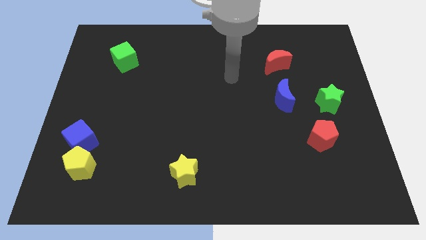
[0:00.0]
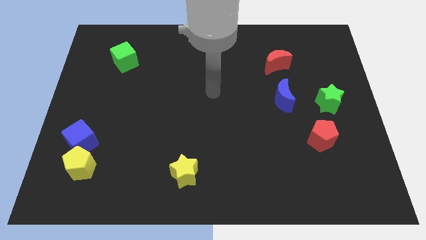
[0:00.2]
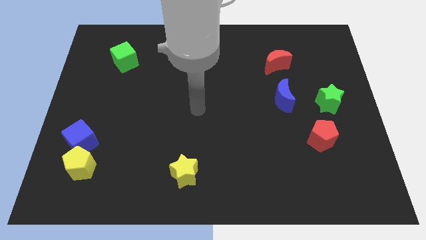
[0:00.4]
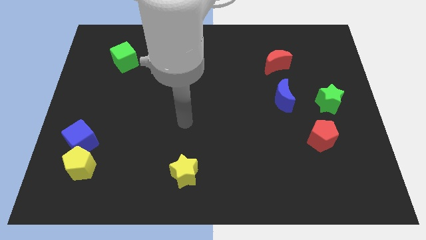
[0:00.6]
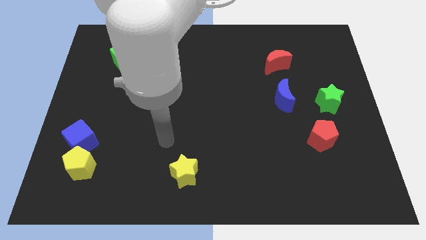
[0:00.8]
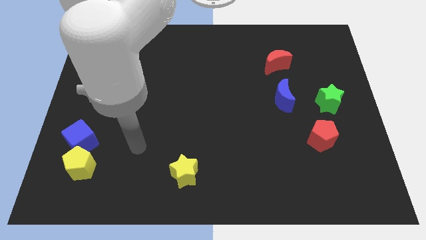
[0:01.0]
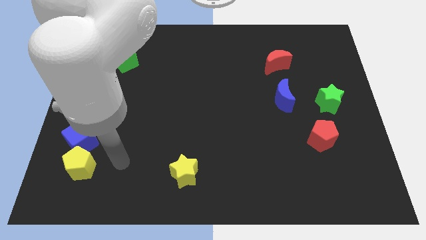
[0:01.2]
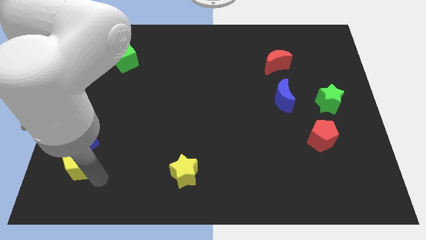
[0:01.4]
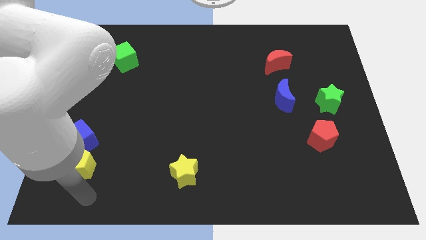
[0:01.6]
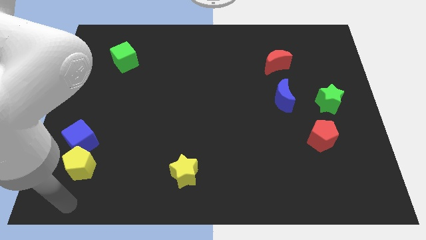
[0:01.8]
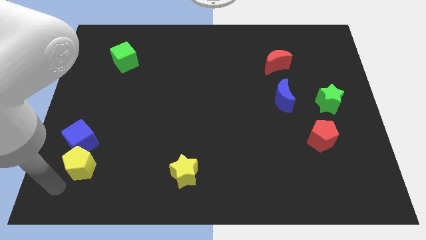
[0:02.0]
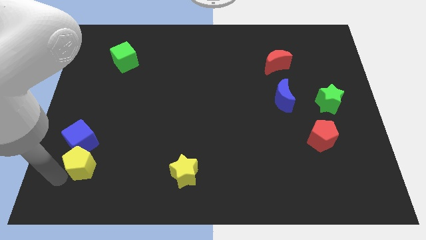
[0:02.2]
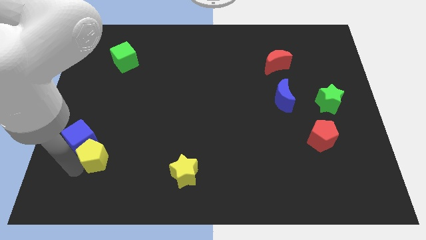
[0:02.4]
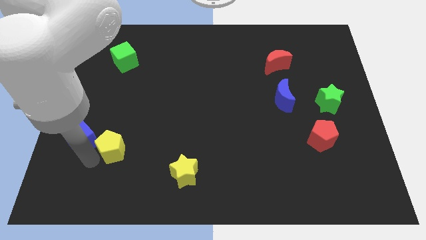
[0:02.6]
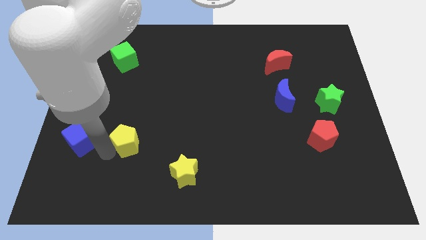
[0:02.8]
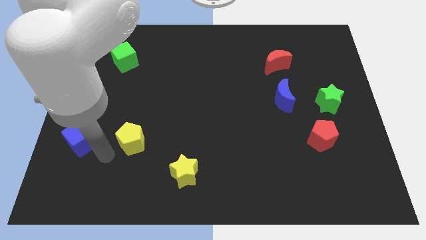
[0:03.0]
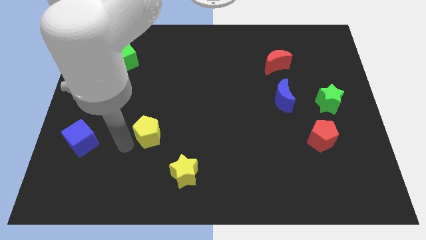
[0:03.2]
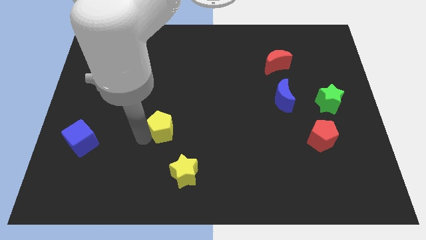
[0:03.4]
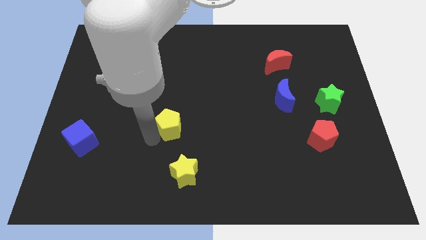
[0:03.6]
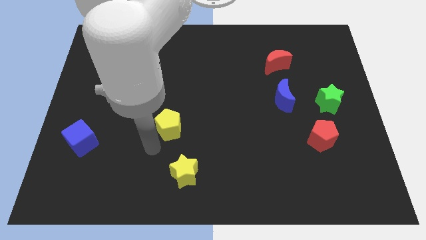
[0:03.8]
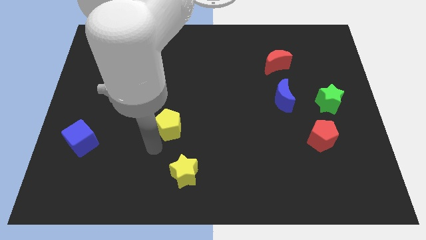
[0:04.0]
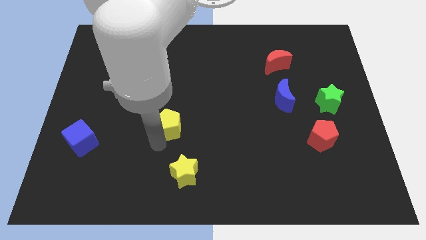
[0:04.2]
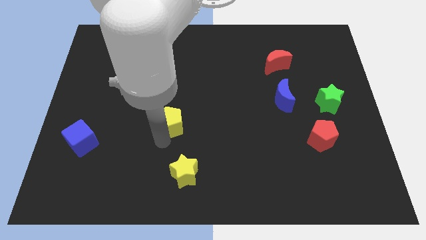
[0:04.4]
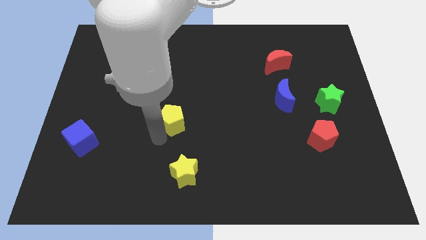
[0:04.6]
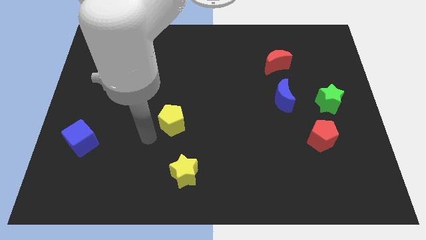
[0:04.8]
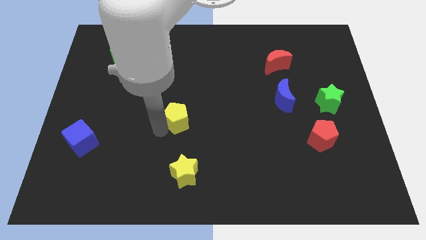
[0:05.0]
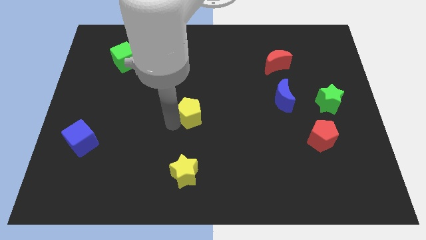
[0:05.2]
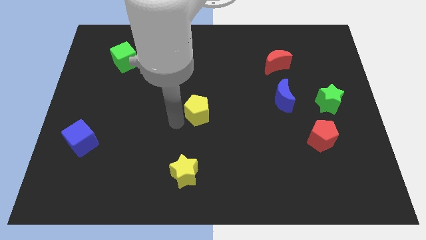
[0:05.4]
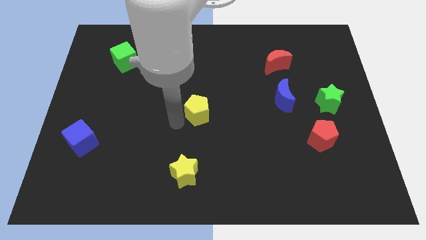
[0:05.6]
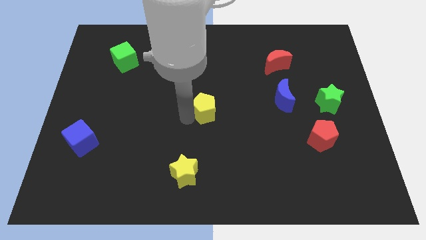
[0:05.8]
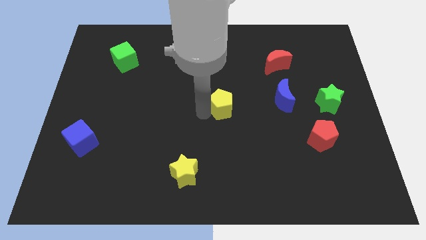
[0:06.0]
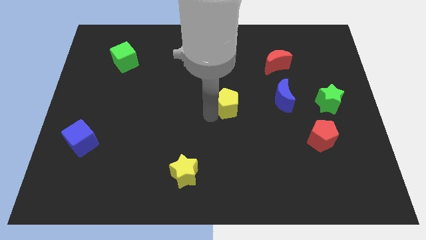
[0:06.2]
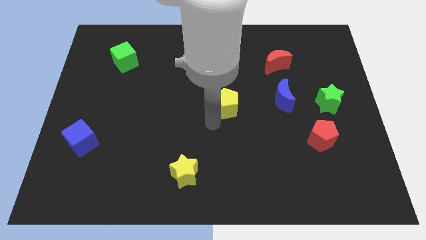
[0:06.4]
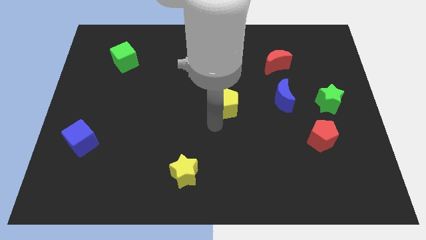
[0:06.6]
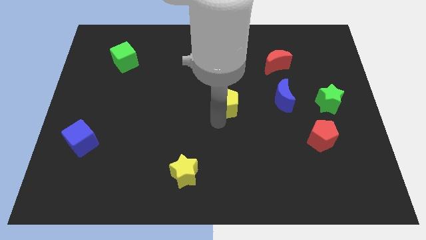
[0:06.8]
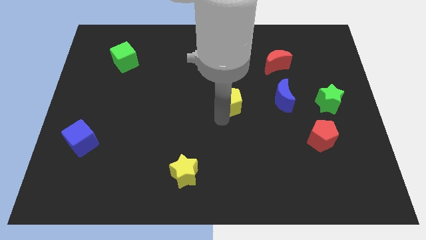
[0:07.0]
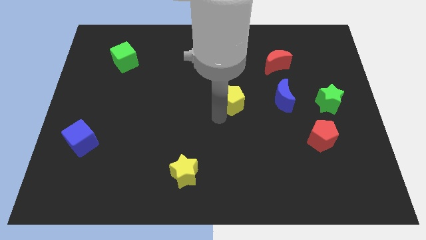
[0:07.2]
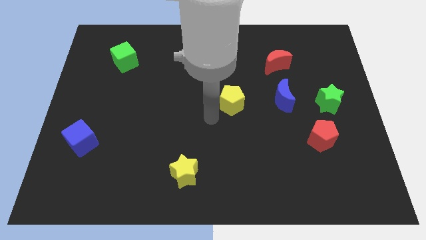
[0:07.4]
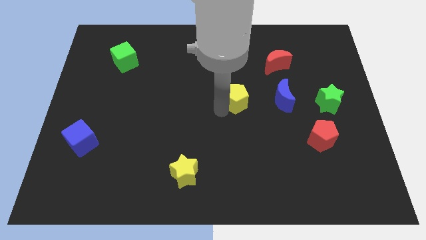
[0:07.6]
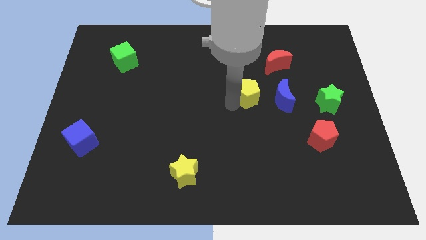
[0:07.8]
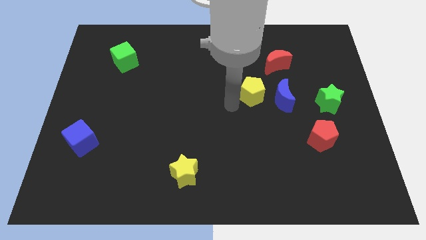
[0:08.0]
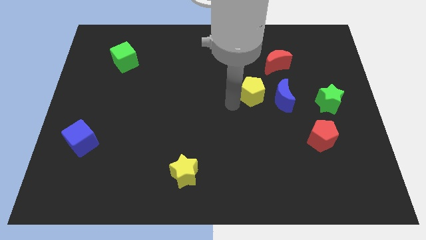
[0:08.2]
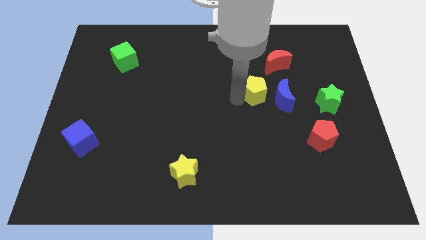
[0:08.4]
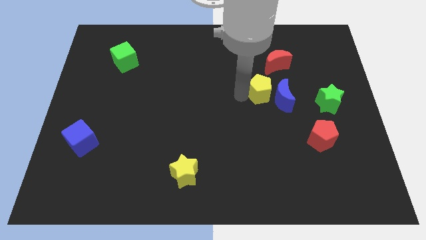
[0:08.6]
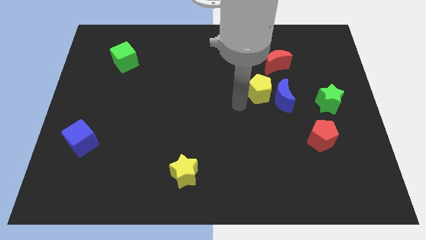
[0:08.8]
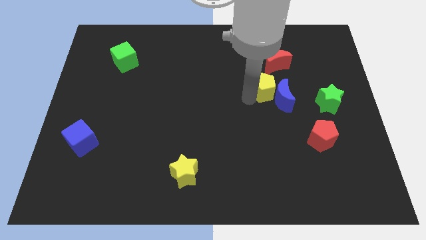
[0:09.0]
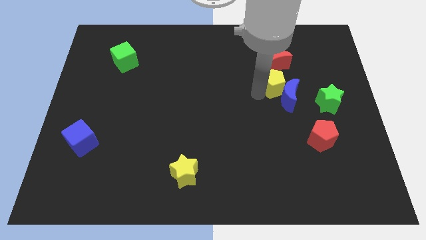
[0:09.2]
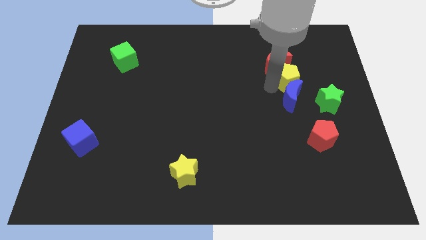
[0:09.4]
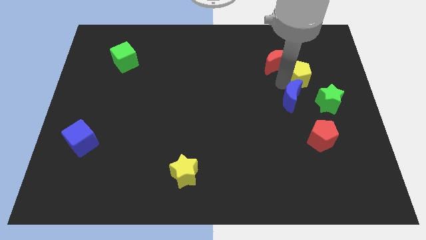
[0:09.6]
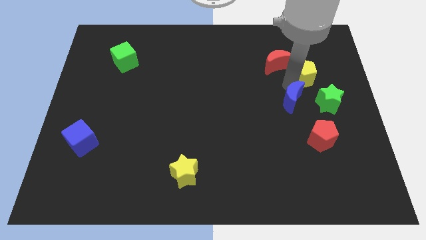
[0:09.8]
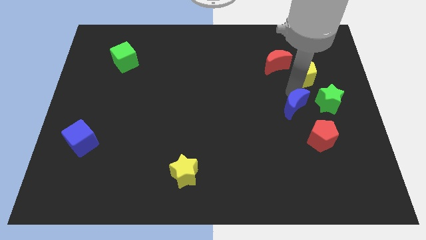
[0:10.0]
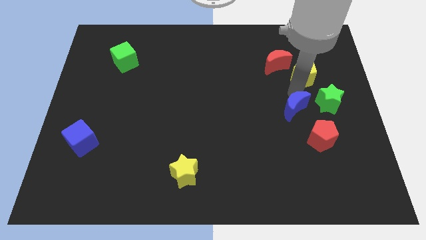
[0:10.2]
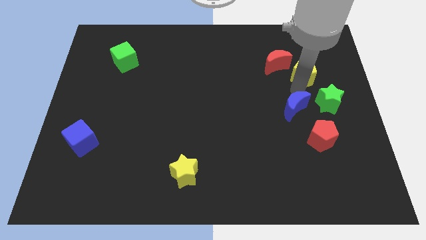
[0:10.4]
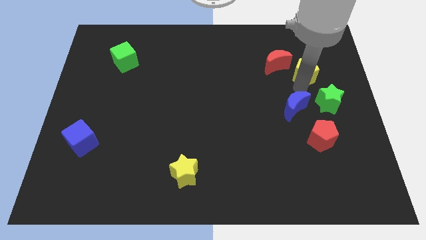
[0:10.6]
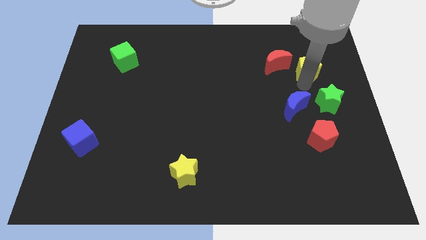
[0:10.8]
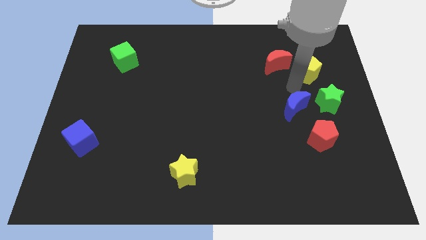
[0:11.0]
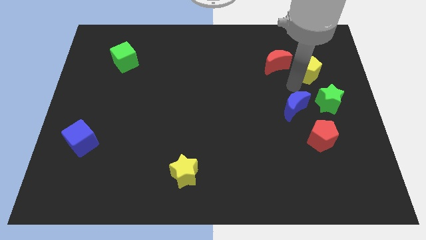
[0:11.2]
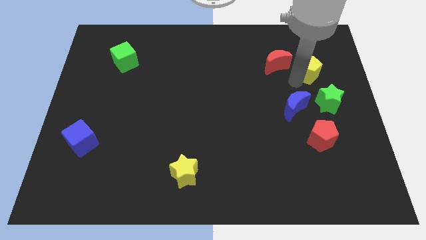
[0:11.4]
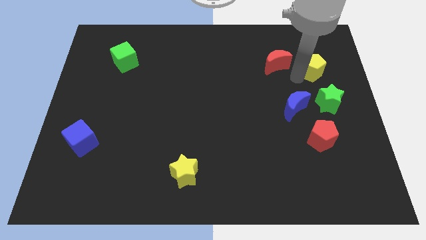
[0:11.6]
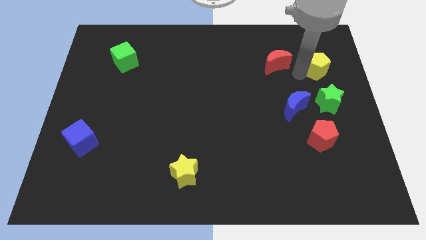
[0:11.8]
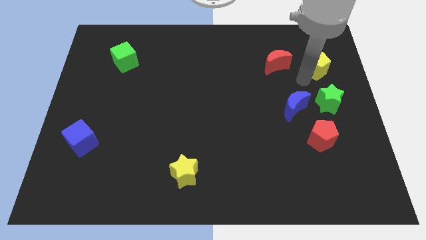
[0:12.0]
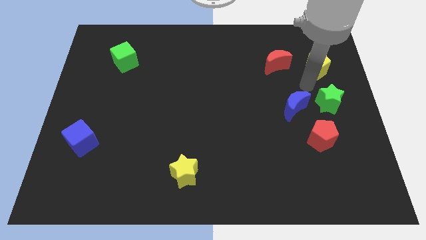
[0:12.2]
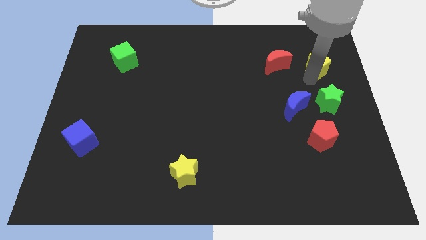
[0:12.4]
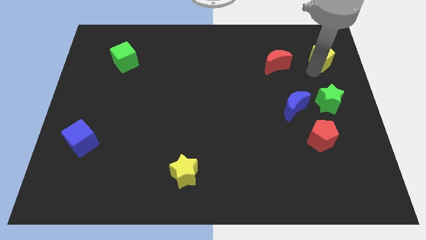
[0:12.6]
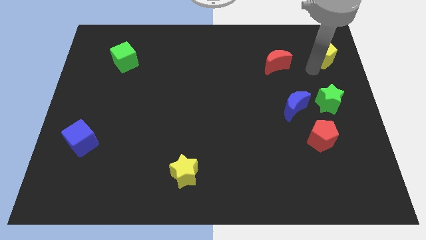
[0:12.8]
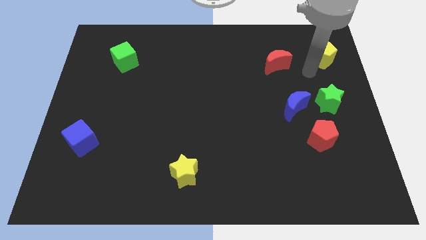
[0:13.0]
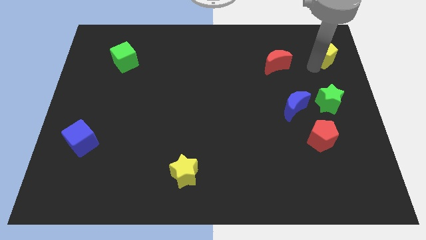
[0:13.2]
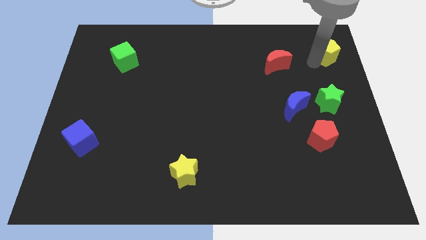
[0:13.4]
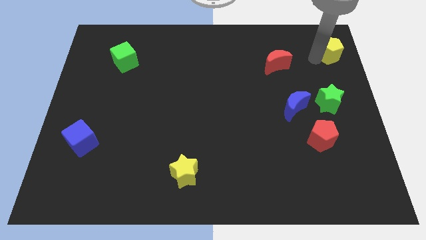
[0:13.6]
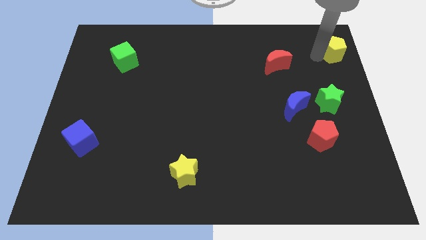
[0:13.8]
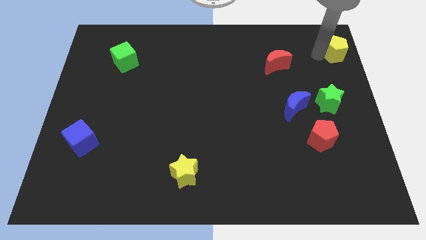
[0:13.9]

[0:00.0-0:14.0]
put the yellow pentagon to the top right of the board
